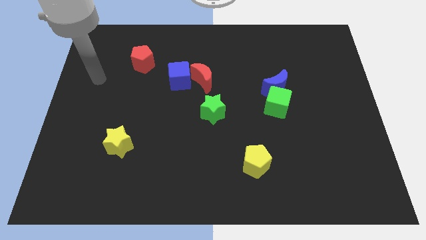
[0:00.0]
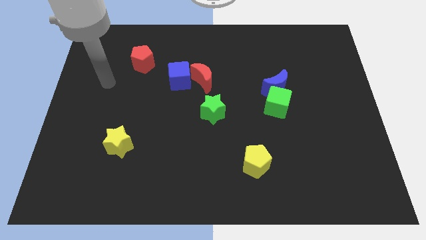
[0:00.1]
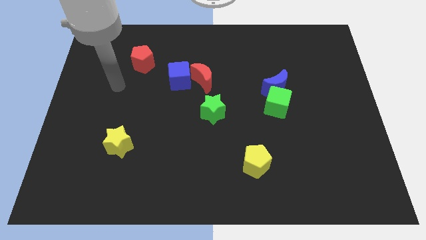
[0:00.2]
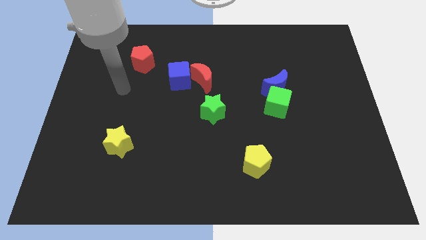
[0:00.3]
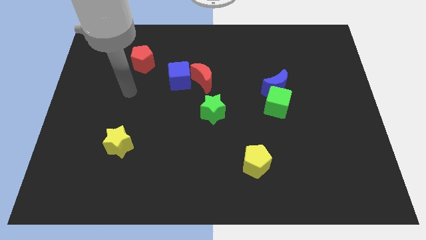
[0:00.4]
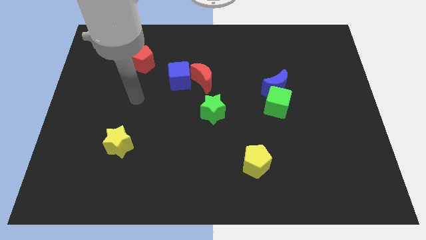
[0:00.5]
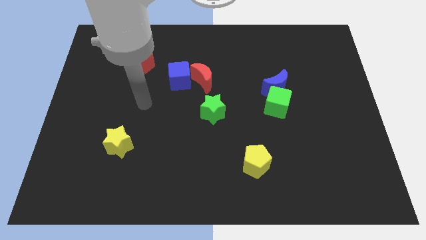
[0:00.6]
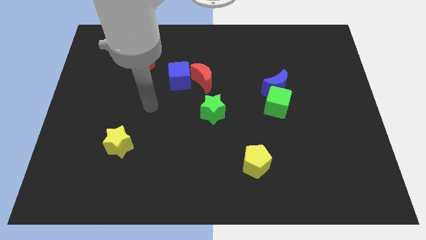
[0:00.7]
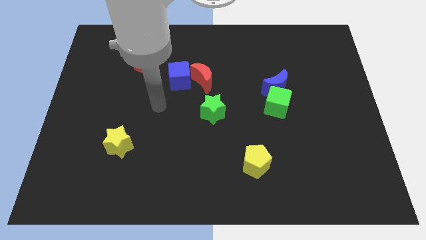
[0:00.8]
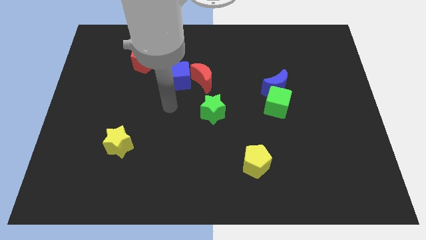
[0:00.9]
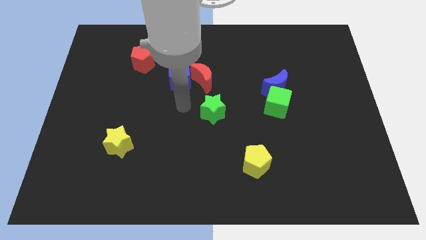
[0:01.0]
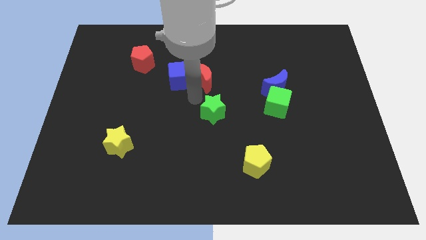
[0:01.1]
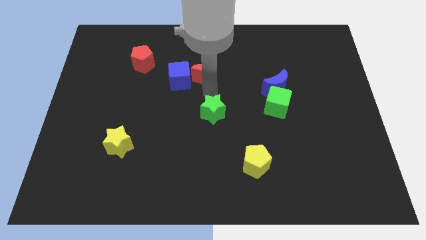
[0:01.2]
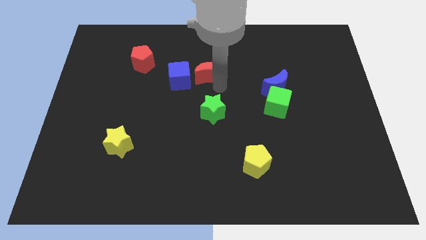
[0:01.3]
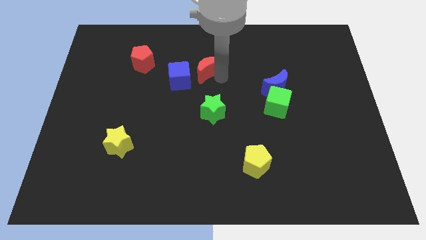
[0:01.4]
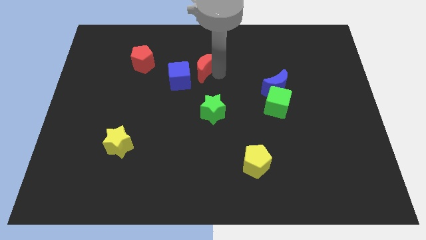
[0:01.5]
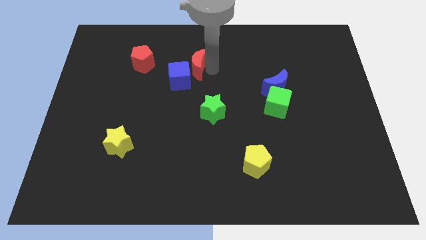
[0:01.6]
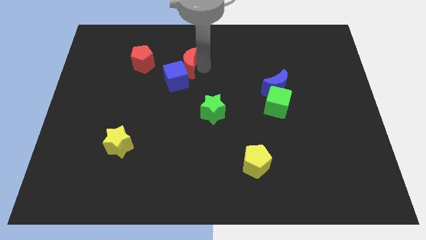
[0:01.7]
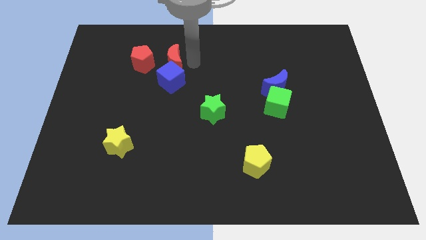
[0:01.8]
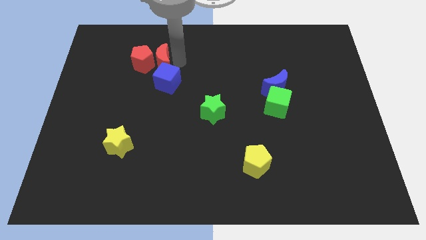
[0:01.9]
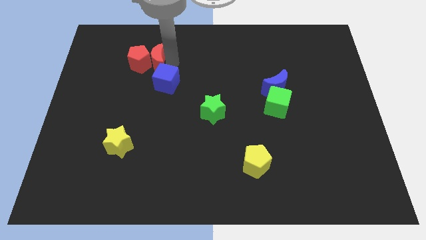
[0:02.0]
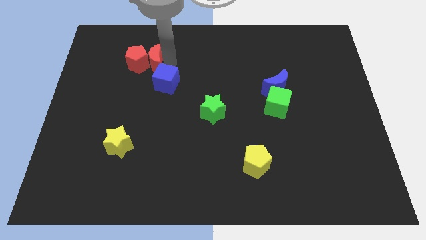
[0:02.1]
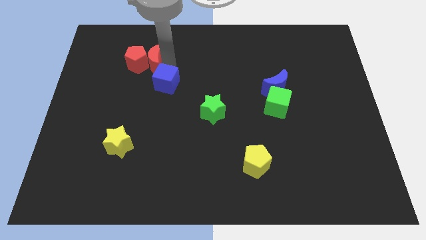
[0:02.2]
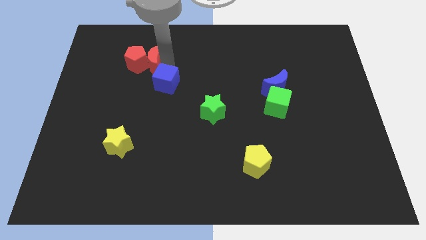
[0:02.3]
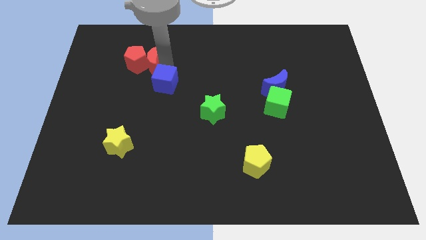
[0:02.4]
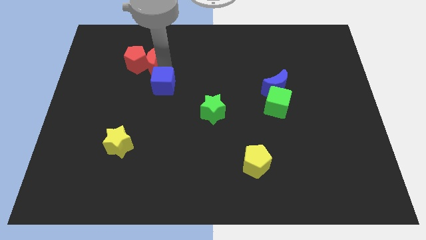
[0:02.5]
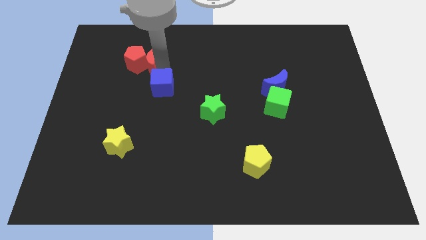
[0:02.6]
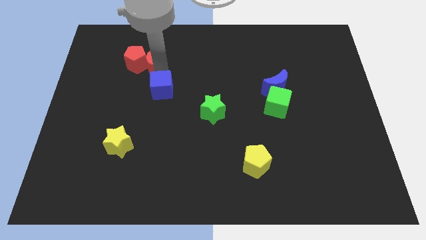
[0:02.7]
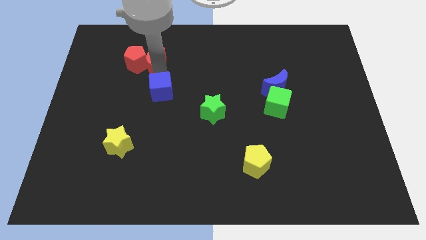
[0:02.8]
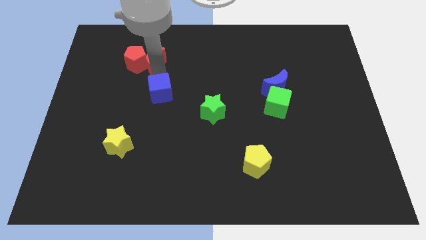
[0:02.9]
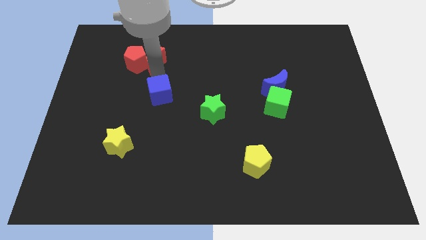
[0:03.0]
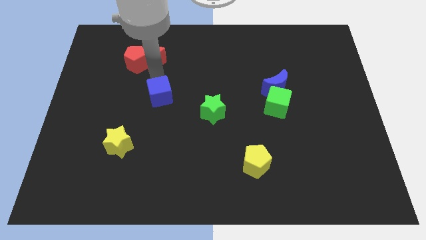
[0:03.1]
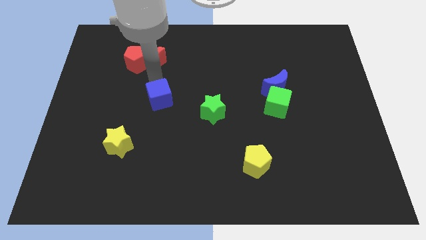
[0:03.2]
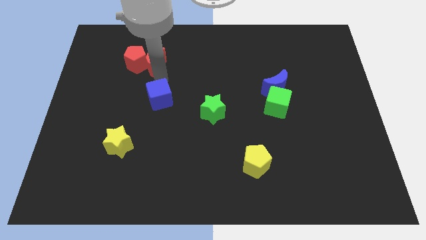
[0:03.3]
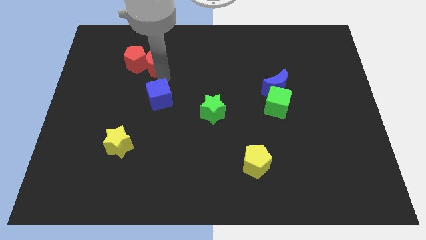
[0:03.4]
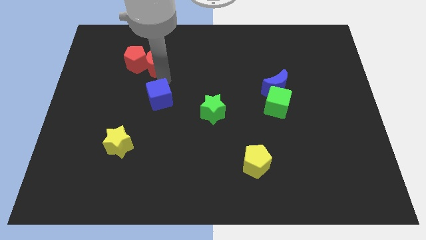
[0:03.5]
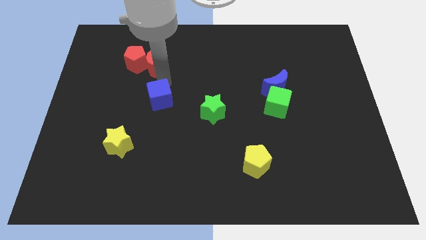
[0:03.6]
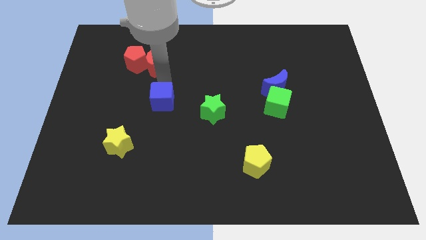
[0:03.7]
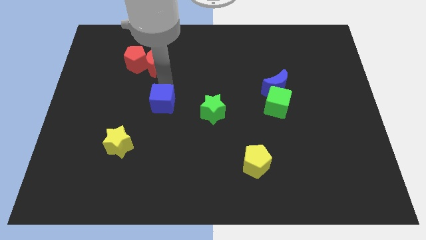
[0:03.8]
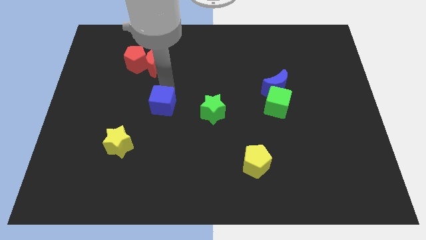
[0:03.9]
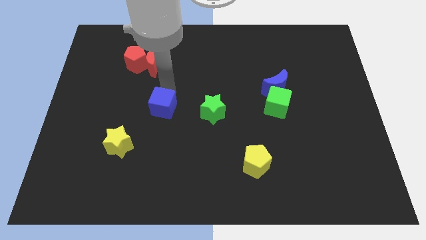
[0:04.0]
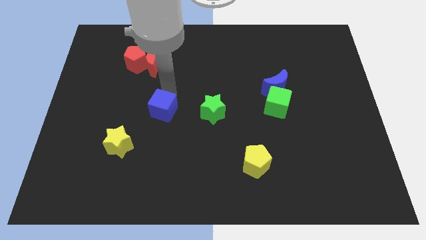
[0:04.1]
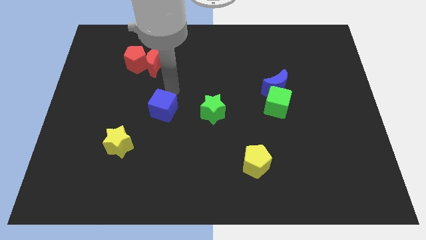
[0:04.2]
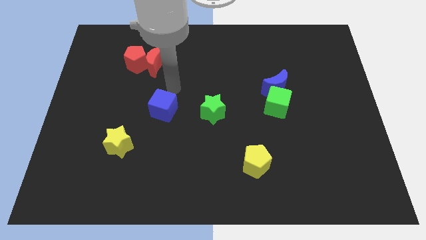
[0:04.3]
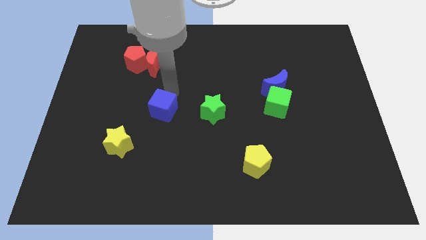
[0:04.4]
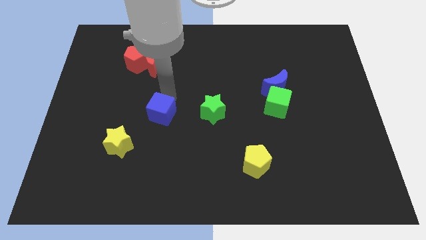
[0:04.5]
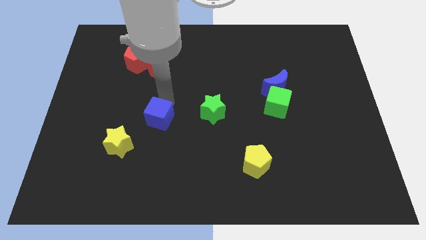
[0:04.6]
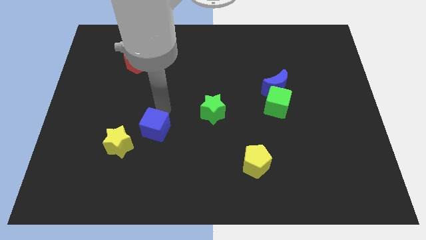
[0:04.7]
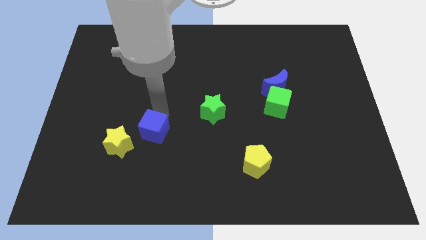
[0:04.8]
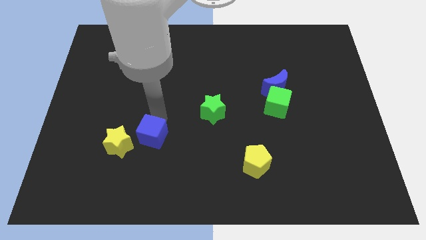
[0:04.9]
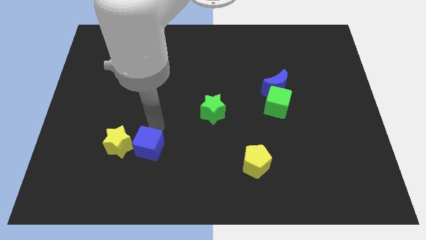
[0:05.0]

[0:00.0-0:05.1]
slide the blue cube to the bottom right of the yellow star

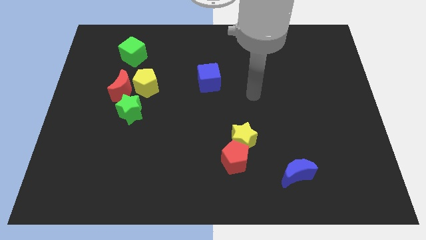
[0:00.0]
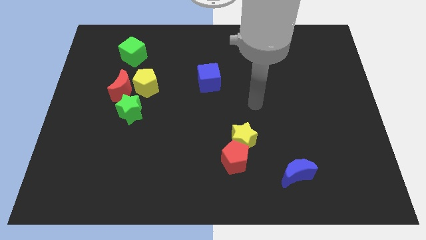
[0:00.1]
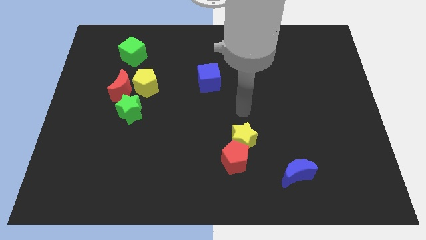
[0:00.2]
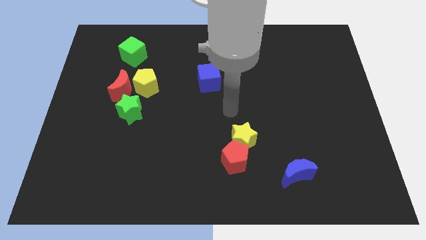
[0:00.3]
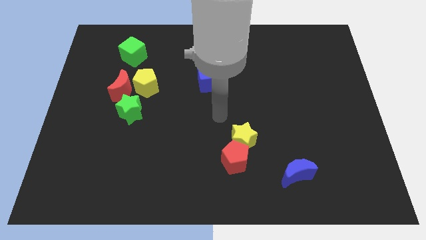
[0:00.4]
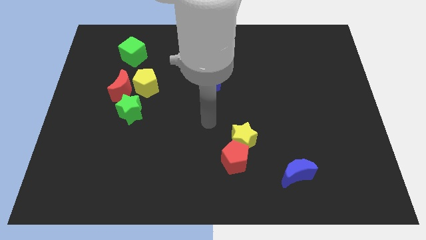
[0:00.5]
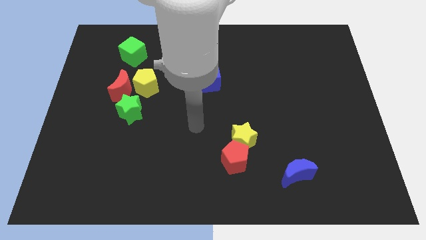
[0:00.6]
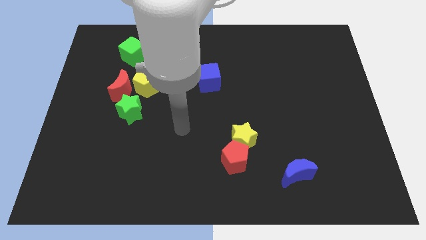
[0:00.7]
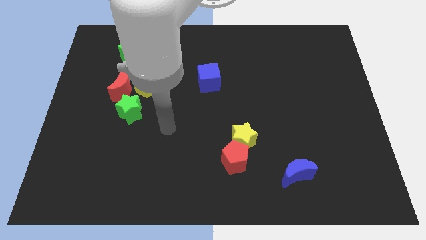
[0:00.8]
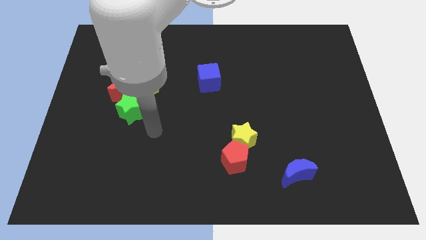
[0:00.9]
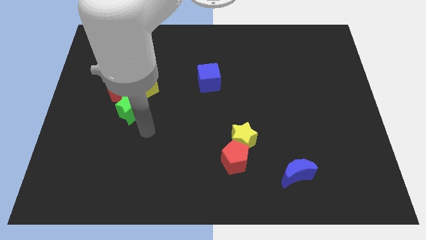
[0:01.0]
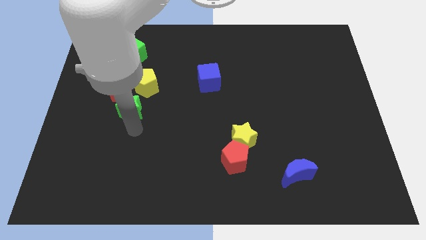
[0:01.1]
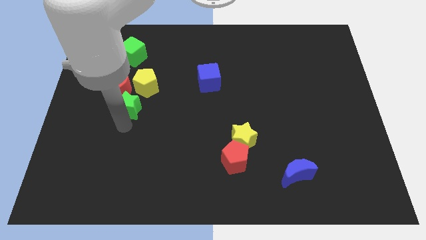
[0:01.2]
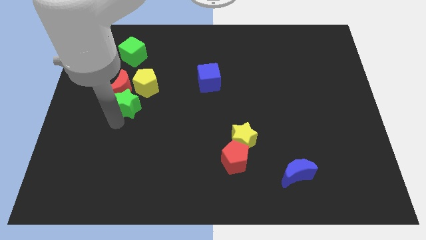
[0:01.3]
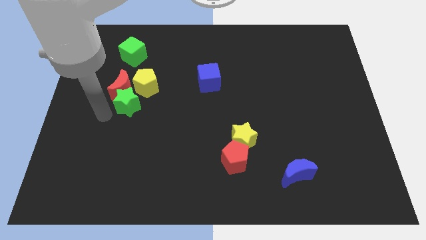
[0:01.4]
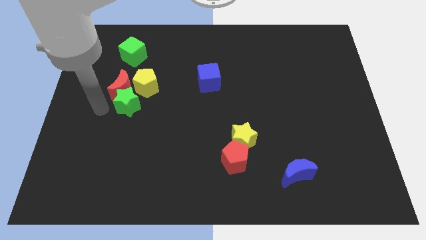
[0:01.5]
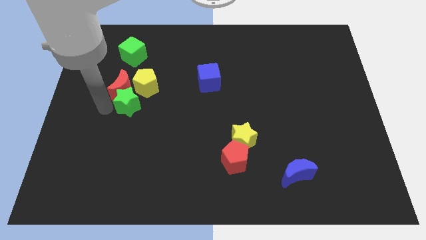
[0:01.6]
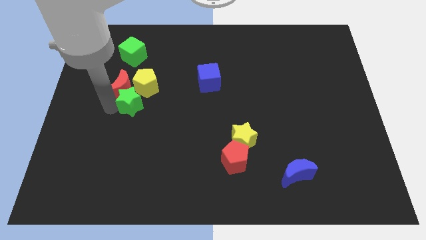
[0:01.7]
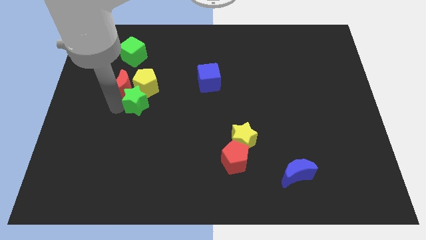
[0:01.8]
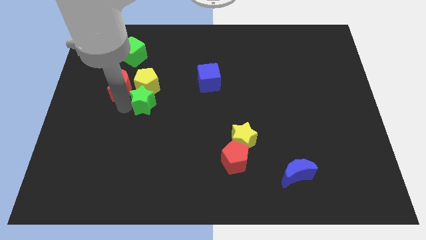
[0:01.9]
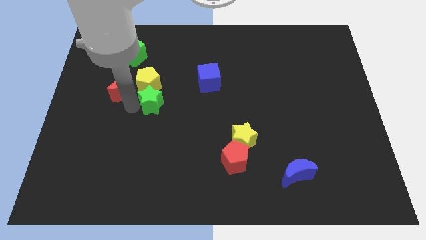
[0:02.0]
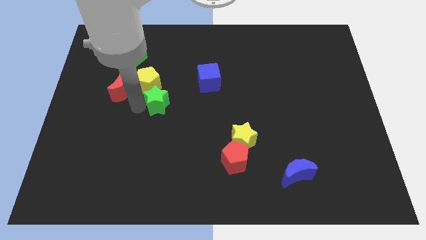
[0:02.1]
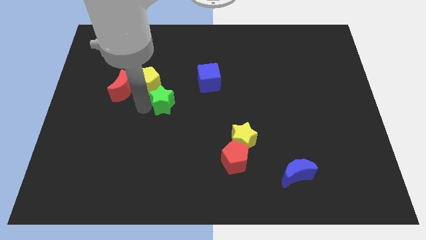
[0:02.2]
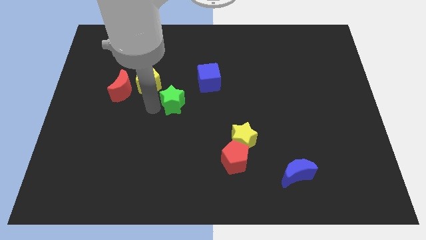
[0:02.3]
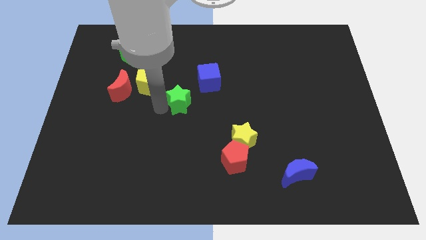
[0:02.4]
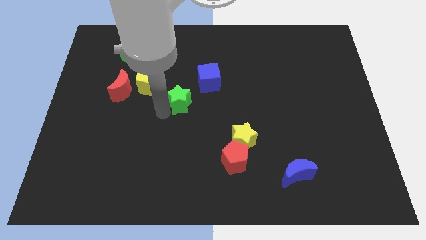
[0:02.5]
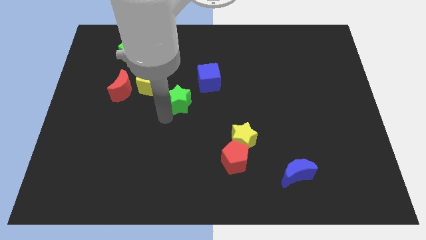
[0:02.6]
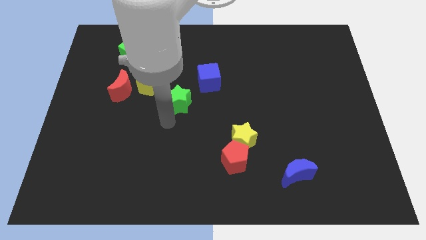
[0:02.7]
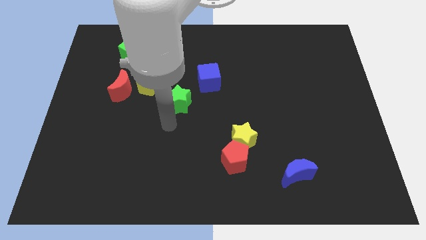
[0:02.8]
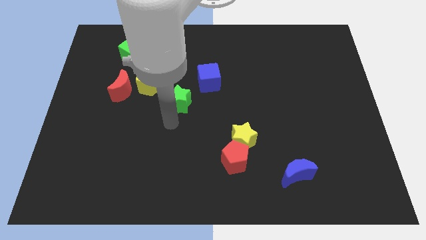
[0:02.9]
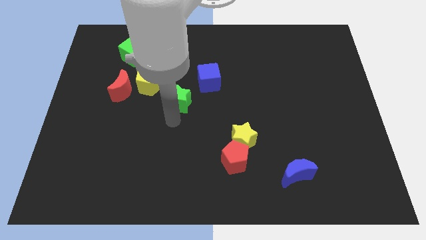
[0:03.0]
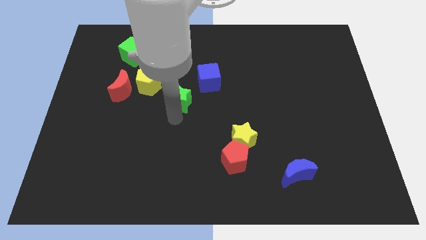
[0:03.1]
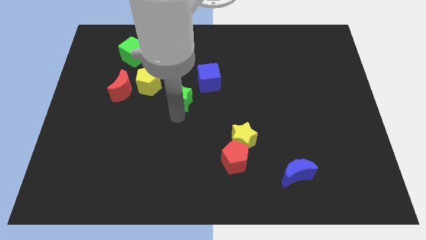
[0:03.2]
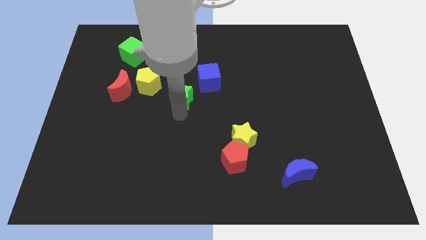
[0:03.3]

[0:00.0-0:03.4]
put the green star to the right of the yellow pentagon

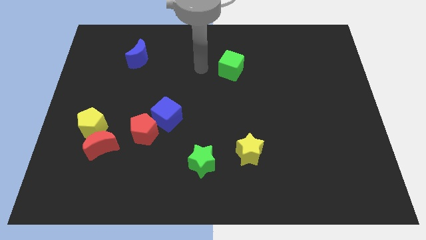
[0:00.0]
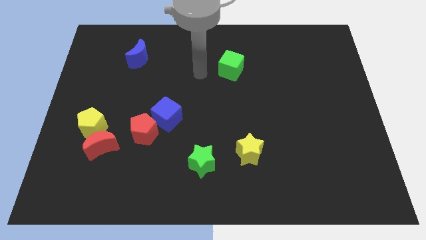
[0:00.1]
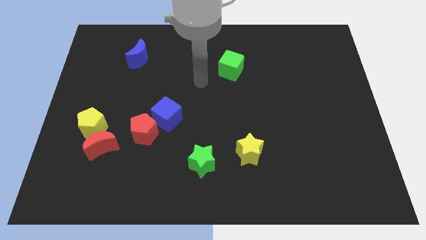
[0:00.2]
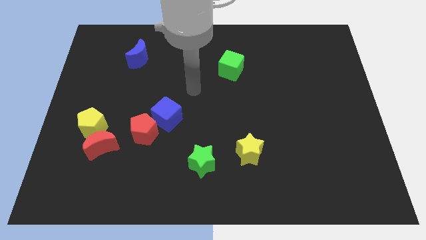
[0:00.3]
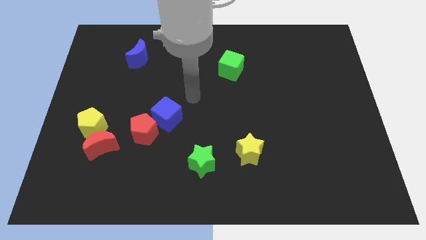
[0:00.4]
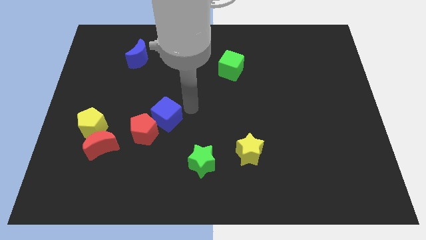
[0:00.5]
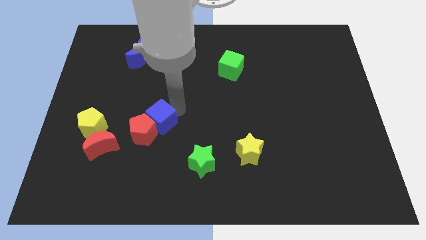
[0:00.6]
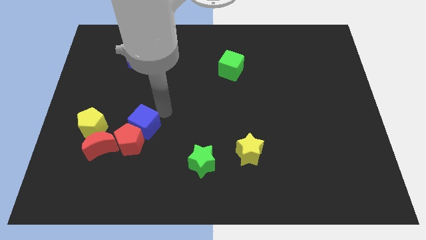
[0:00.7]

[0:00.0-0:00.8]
put the red pentagon to the bottom right side of the yellow pentagon
